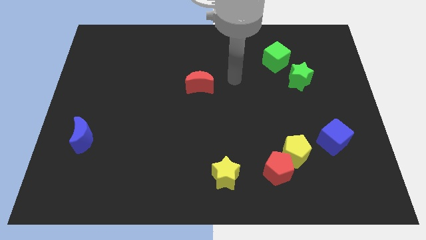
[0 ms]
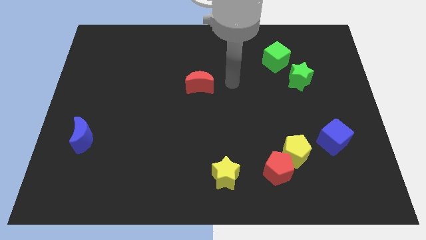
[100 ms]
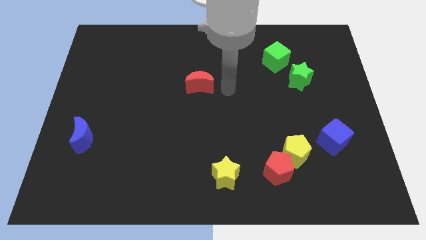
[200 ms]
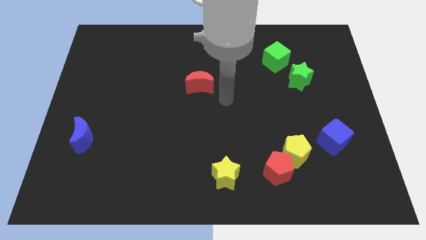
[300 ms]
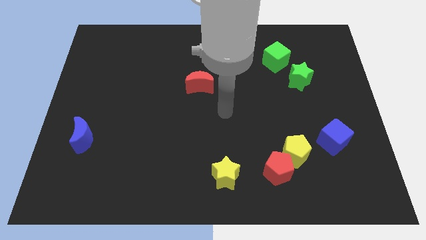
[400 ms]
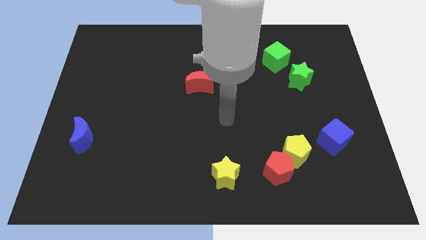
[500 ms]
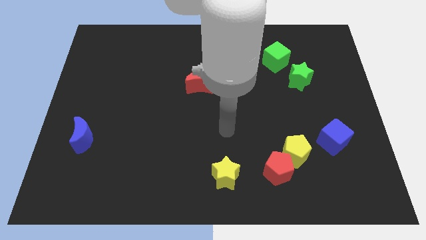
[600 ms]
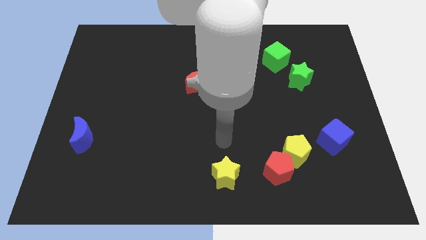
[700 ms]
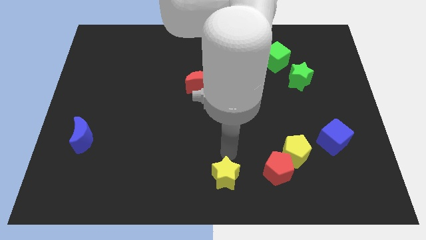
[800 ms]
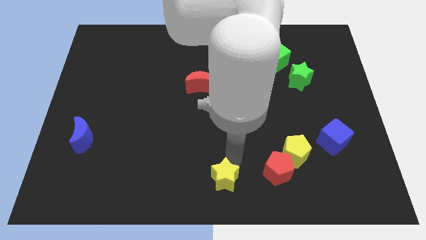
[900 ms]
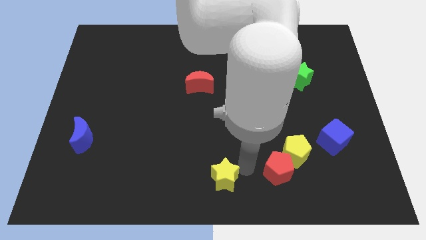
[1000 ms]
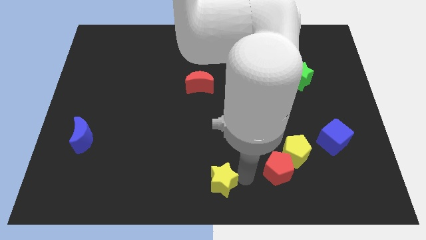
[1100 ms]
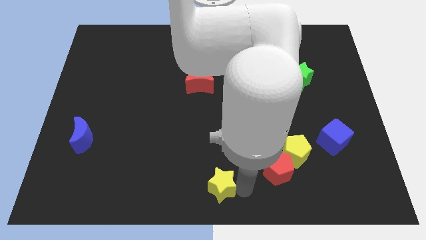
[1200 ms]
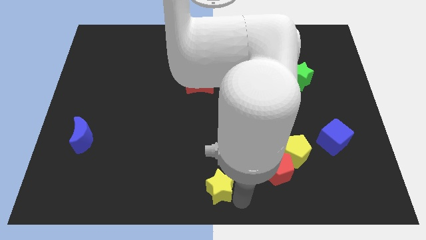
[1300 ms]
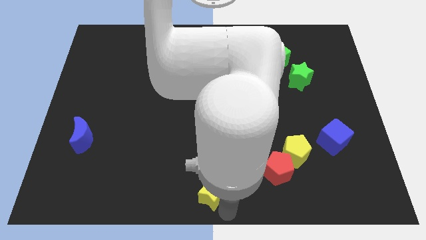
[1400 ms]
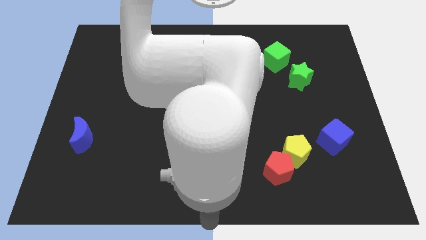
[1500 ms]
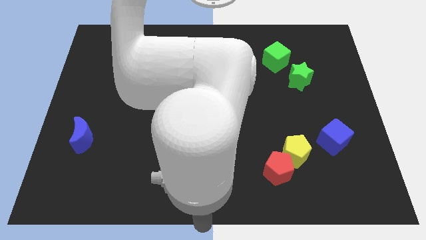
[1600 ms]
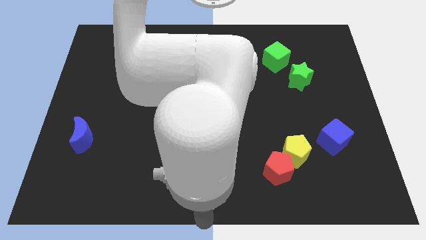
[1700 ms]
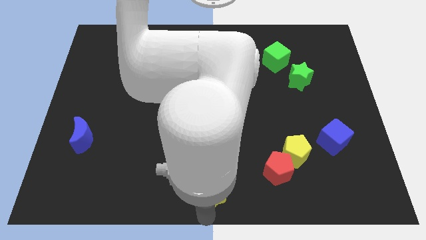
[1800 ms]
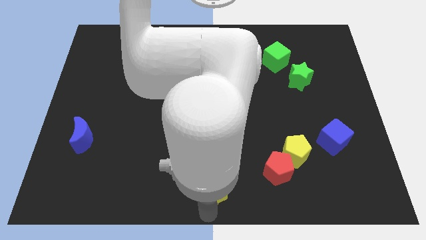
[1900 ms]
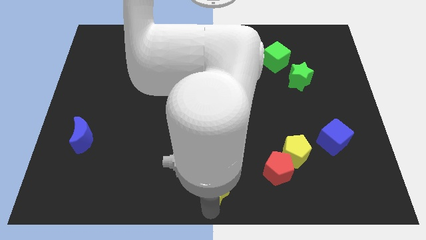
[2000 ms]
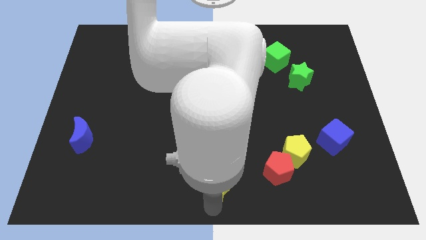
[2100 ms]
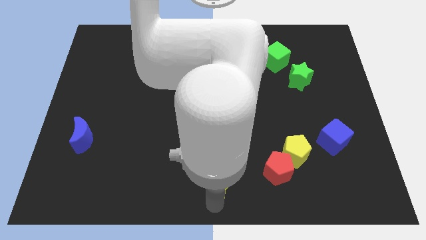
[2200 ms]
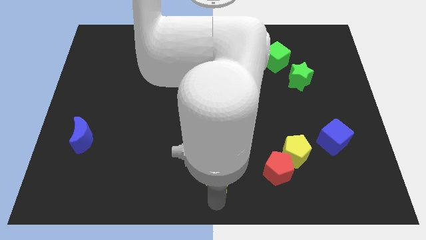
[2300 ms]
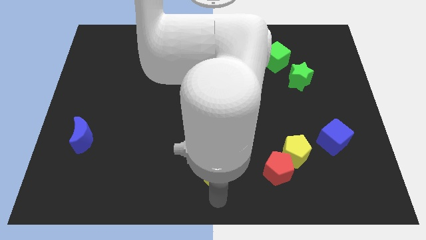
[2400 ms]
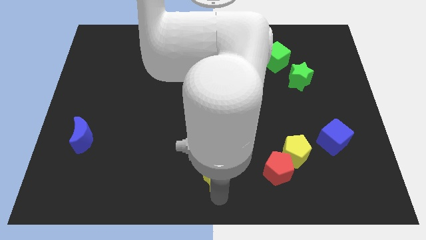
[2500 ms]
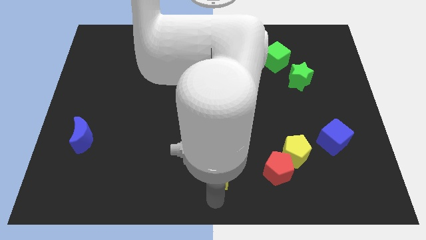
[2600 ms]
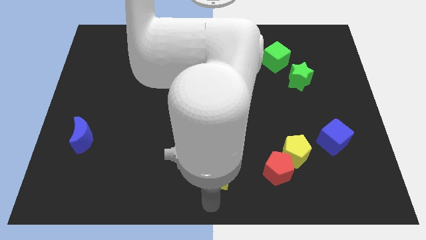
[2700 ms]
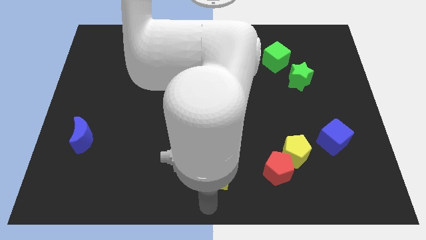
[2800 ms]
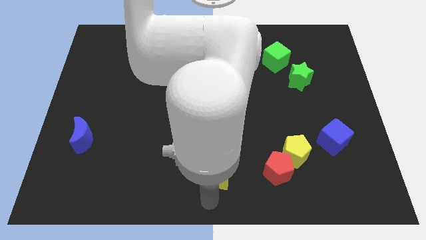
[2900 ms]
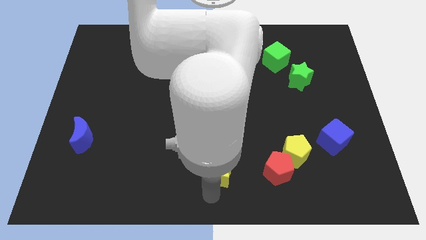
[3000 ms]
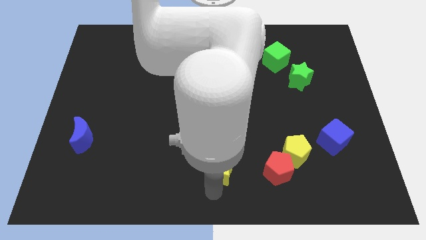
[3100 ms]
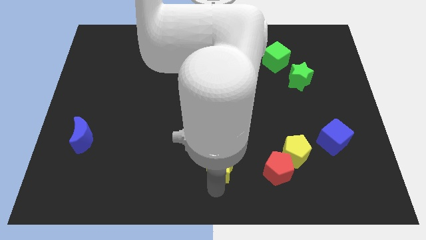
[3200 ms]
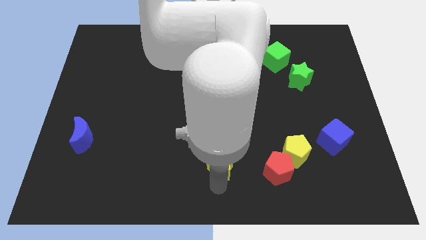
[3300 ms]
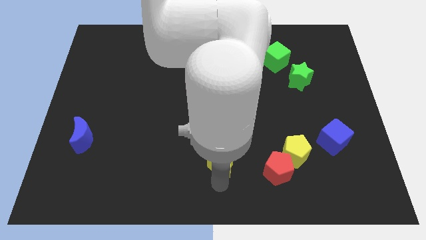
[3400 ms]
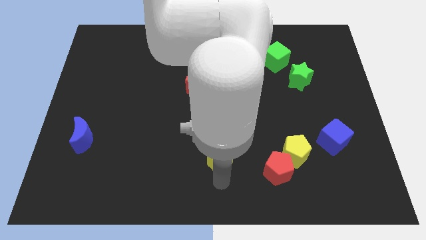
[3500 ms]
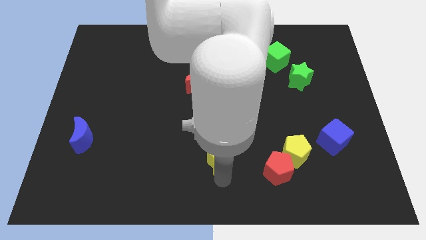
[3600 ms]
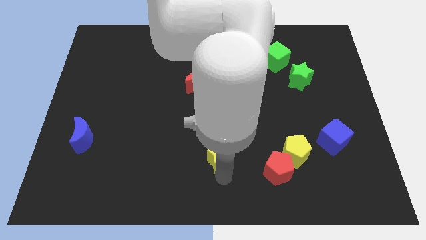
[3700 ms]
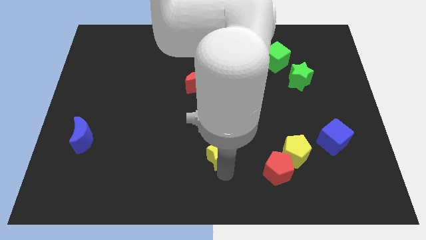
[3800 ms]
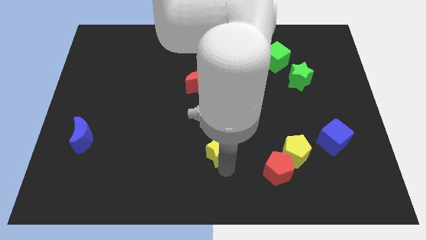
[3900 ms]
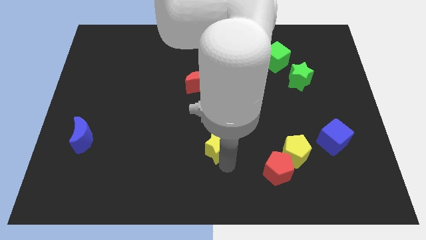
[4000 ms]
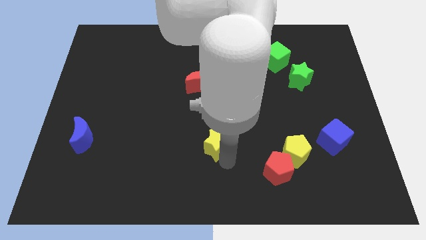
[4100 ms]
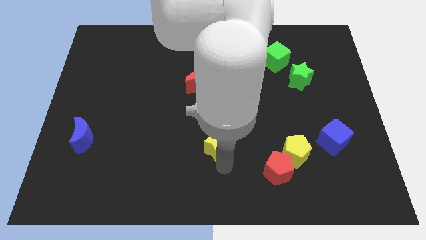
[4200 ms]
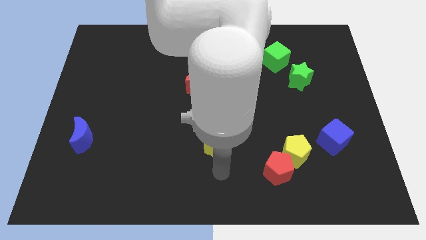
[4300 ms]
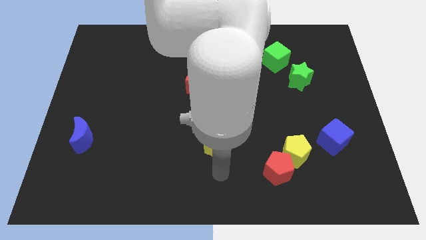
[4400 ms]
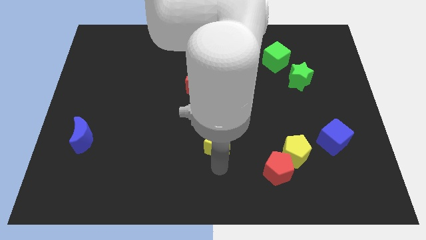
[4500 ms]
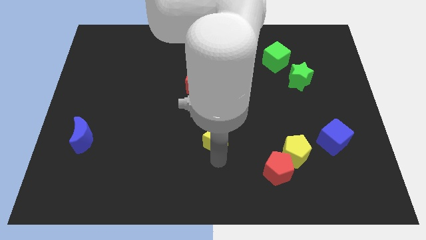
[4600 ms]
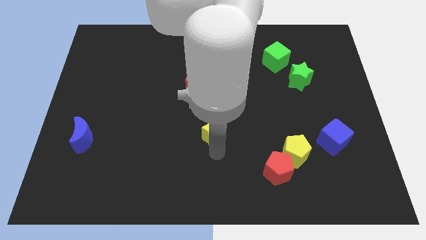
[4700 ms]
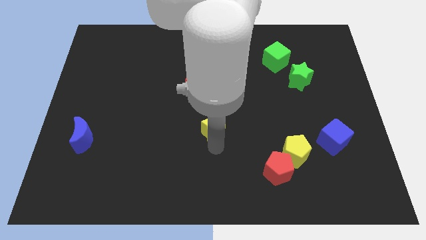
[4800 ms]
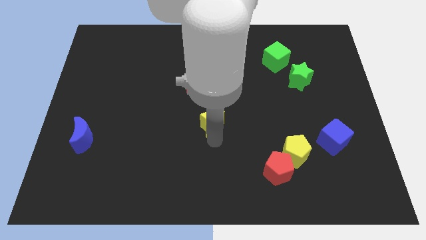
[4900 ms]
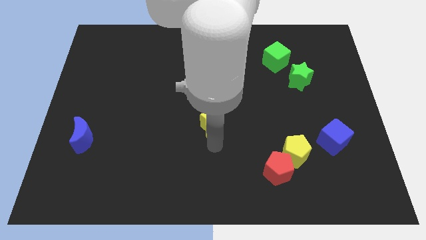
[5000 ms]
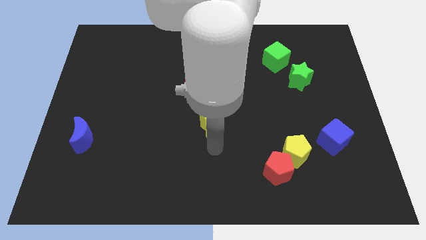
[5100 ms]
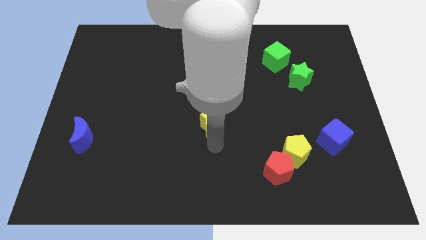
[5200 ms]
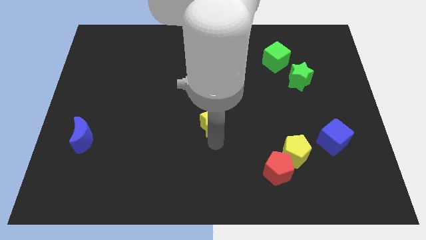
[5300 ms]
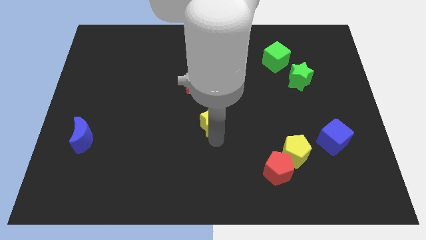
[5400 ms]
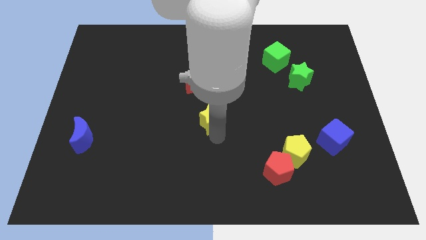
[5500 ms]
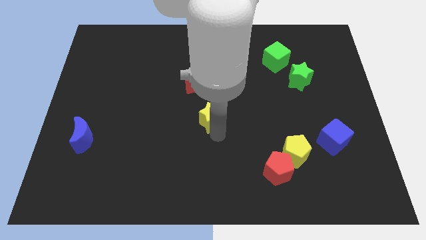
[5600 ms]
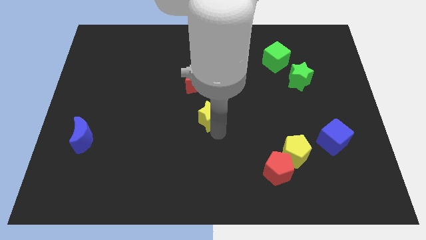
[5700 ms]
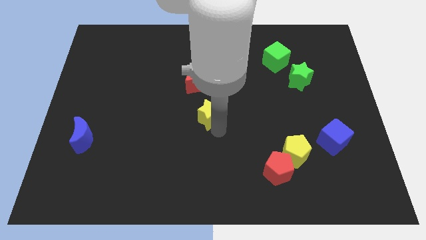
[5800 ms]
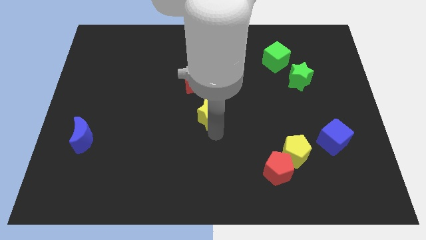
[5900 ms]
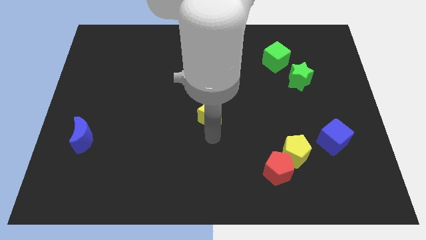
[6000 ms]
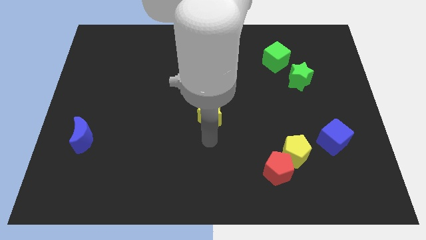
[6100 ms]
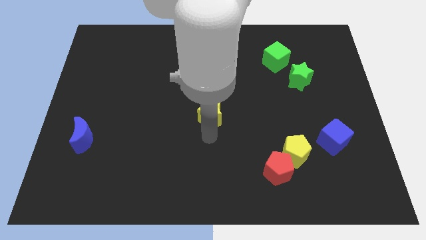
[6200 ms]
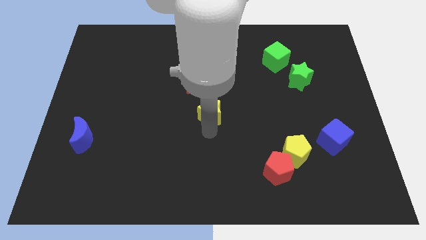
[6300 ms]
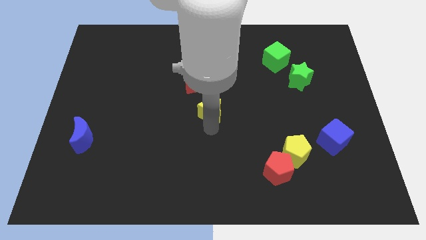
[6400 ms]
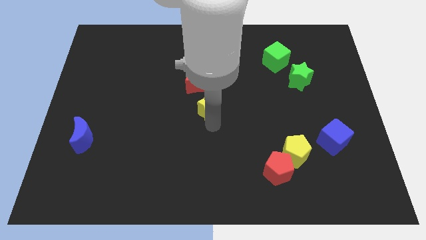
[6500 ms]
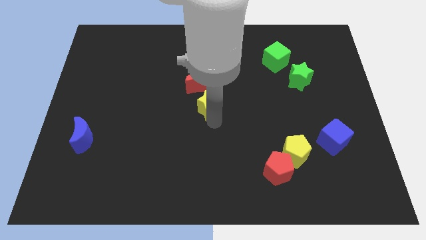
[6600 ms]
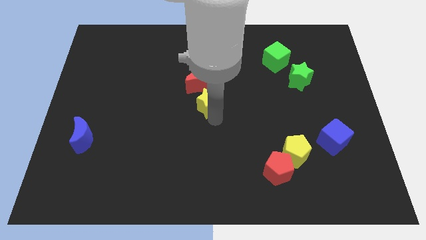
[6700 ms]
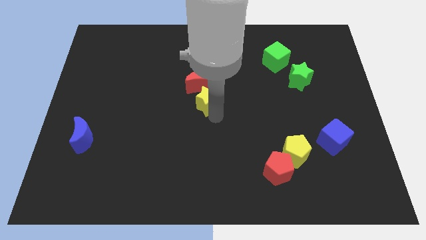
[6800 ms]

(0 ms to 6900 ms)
move the yellow star close to the red moon
